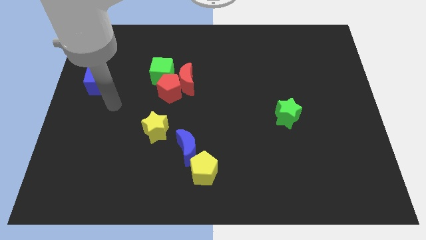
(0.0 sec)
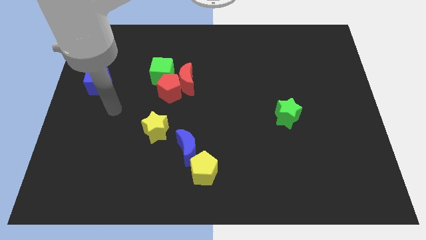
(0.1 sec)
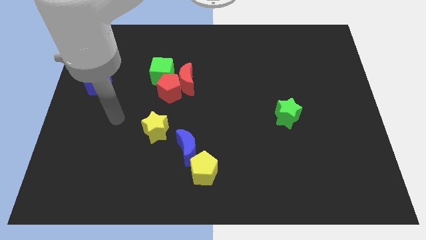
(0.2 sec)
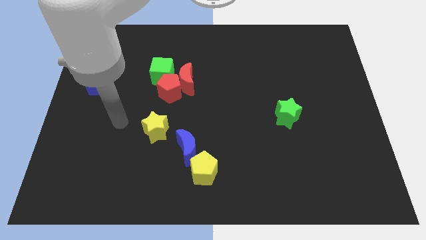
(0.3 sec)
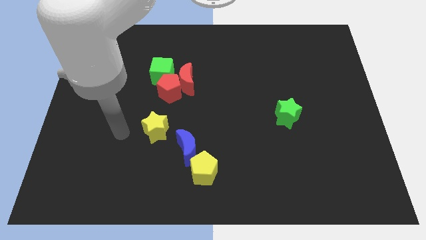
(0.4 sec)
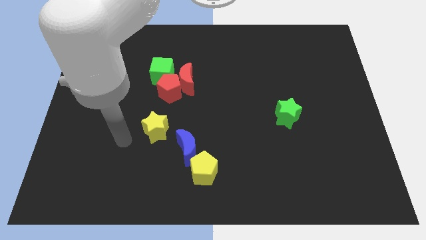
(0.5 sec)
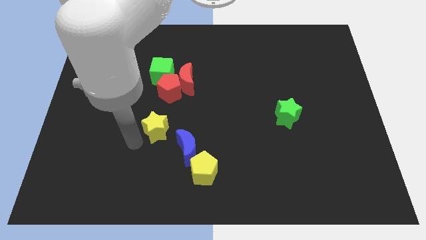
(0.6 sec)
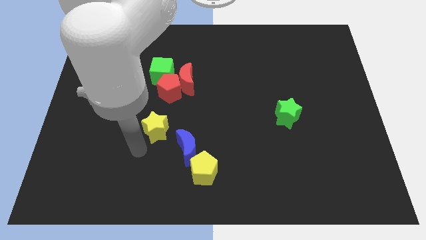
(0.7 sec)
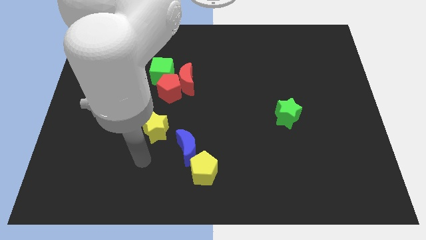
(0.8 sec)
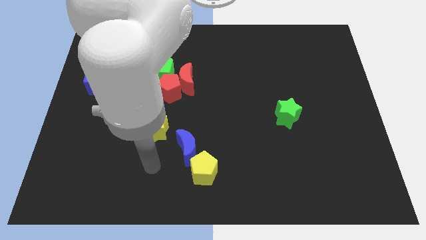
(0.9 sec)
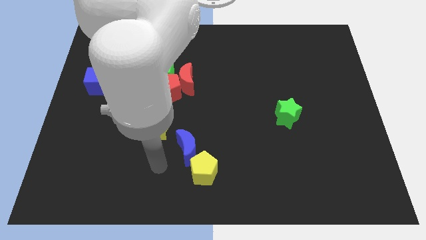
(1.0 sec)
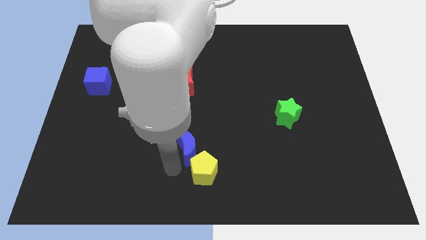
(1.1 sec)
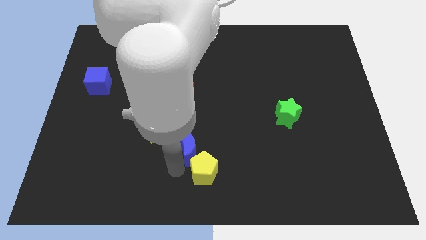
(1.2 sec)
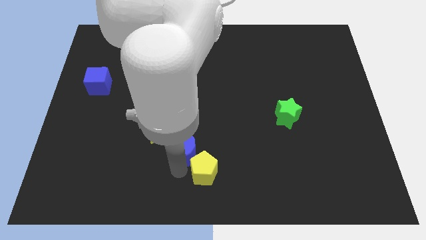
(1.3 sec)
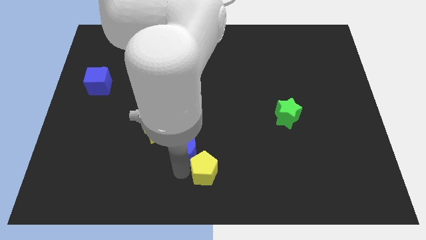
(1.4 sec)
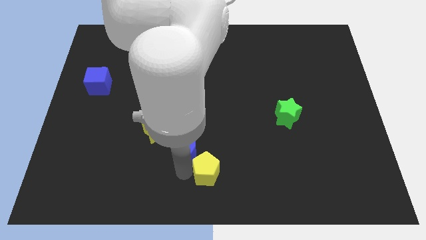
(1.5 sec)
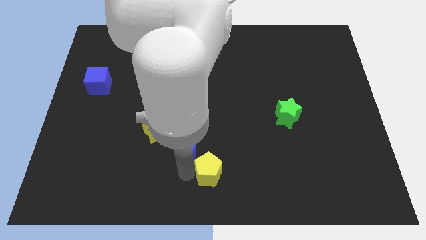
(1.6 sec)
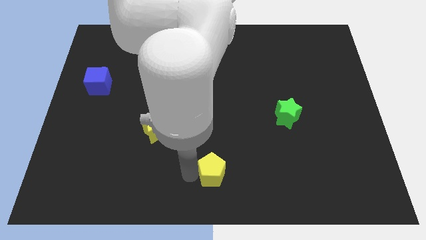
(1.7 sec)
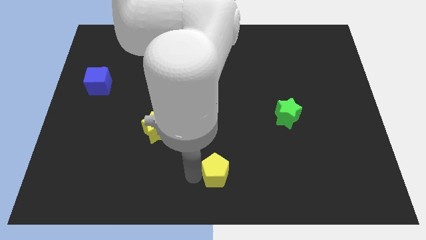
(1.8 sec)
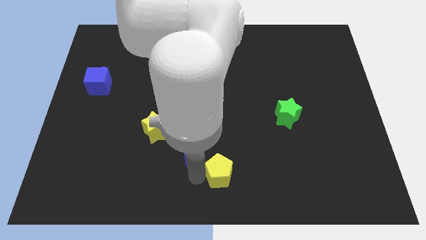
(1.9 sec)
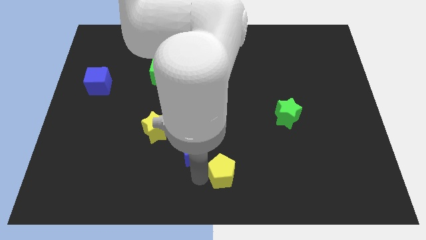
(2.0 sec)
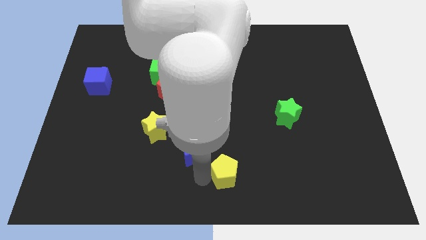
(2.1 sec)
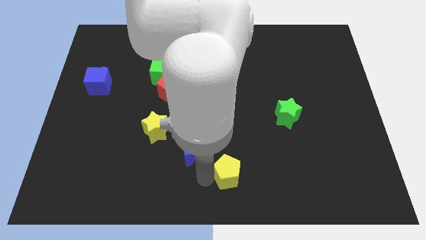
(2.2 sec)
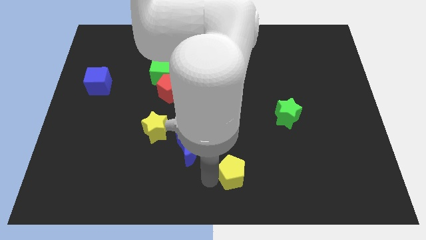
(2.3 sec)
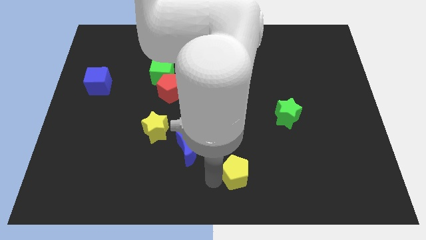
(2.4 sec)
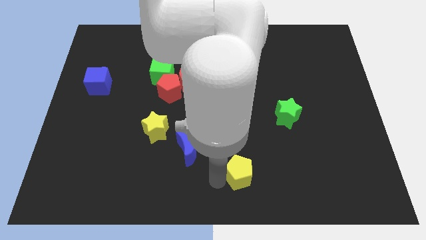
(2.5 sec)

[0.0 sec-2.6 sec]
push the yellow pentagon a bit right

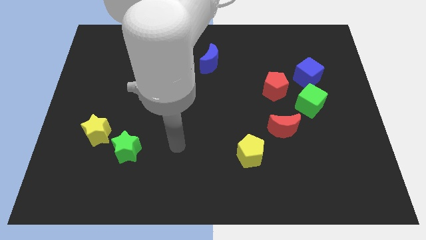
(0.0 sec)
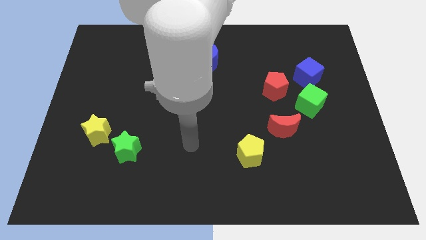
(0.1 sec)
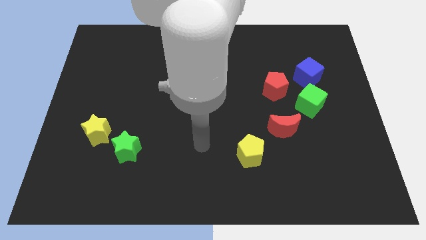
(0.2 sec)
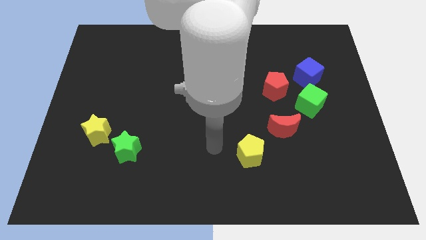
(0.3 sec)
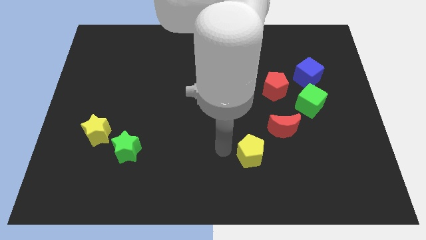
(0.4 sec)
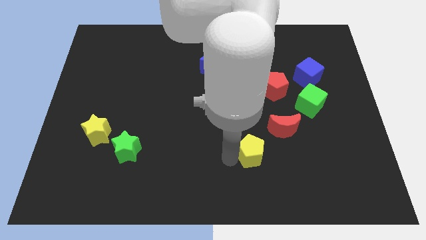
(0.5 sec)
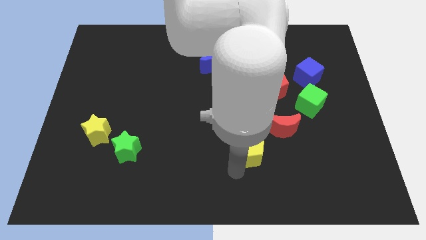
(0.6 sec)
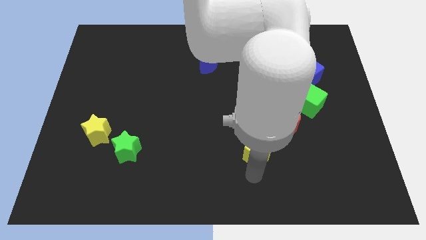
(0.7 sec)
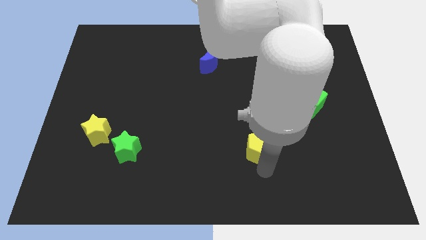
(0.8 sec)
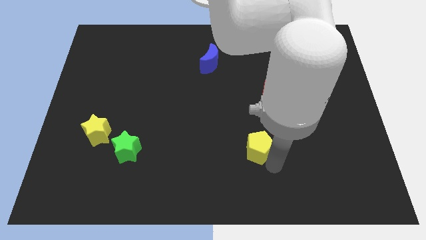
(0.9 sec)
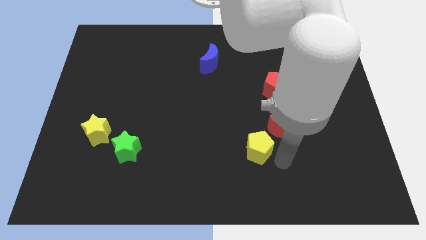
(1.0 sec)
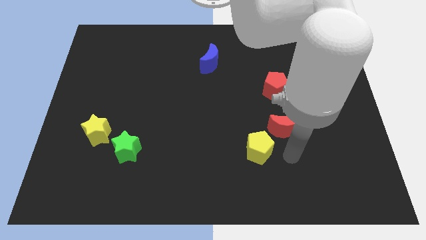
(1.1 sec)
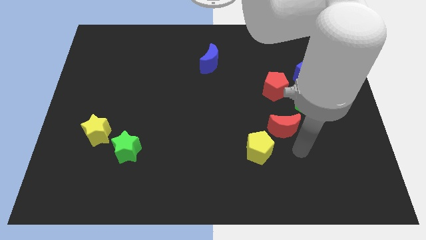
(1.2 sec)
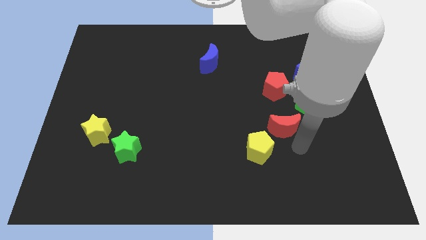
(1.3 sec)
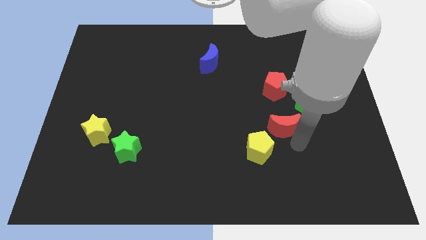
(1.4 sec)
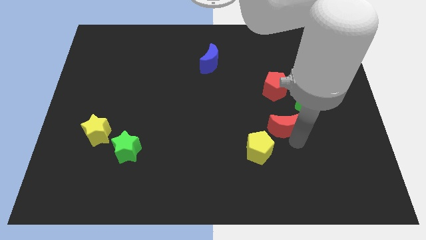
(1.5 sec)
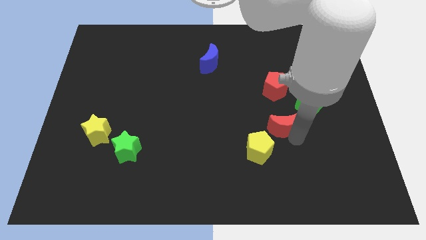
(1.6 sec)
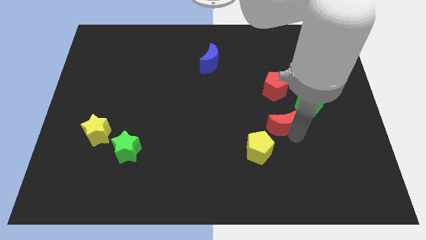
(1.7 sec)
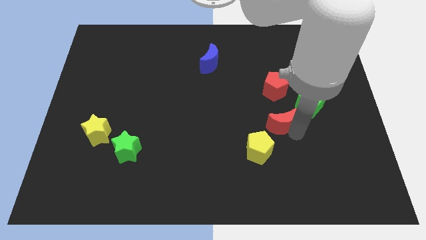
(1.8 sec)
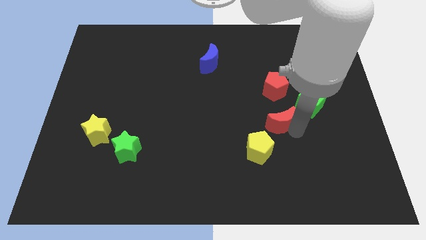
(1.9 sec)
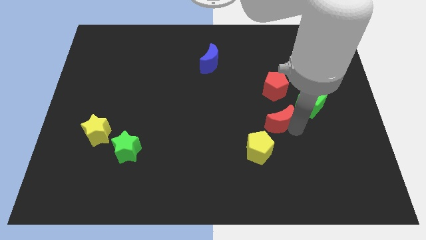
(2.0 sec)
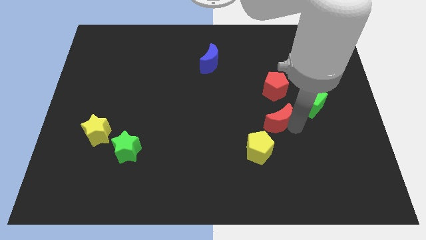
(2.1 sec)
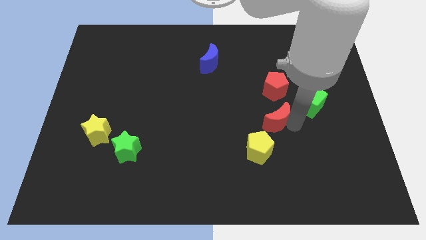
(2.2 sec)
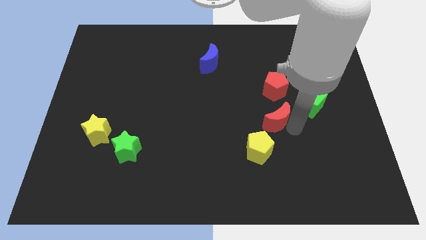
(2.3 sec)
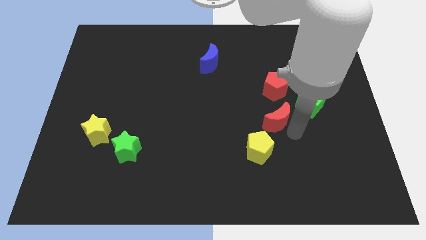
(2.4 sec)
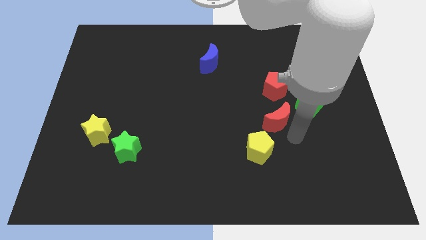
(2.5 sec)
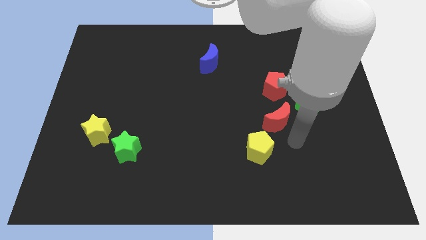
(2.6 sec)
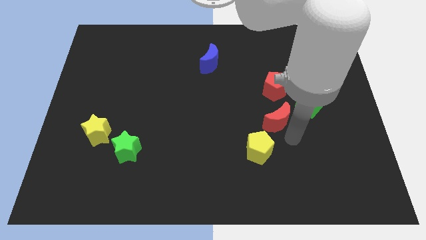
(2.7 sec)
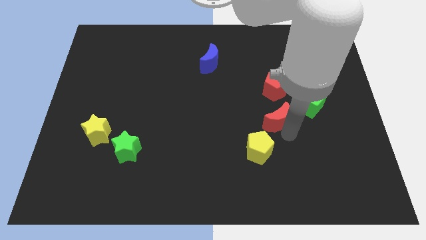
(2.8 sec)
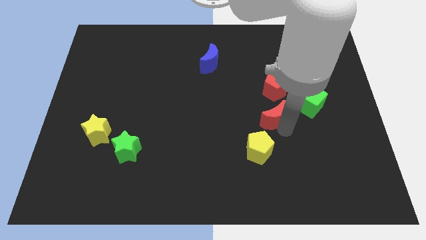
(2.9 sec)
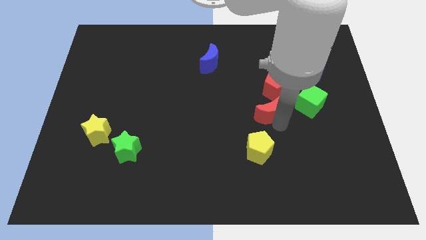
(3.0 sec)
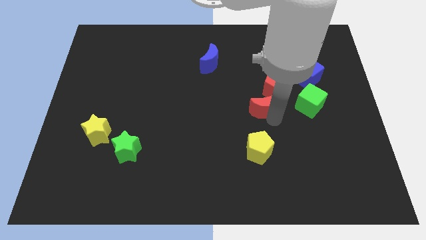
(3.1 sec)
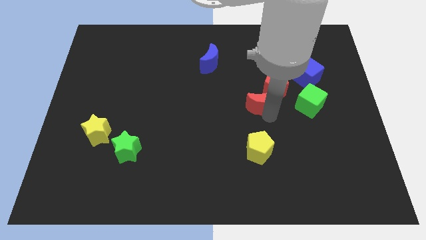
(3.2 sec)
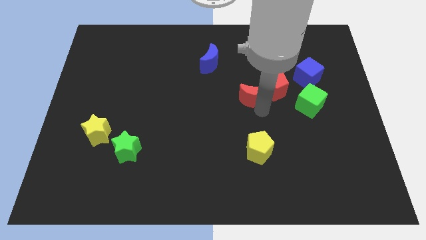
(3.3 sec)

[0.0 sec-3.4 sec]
push the red moon upwards a little

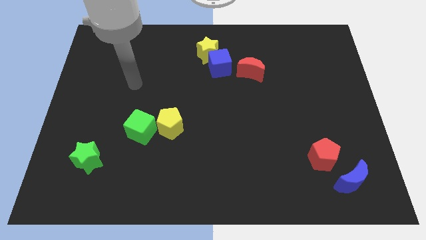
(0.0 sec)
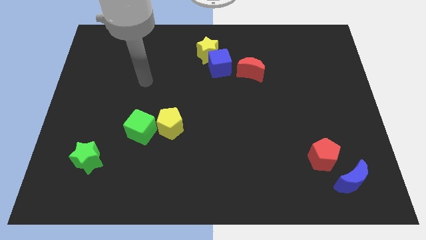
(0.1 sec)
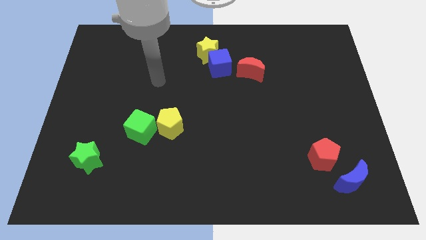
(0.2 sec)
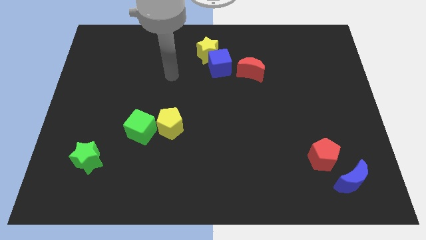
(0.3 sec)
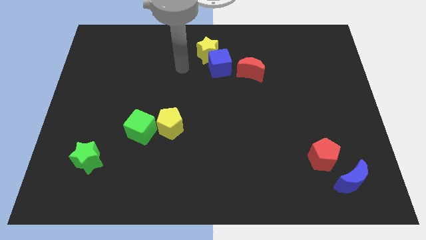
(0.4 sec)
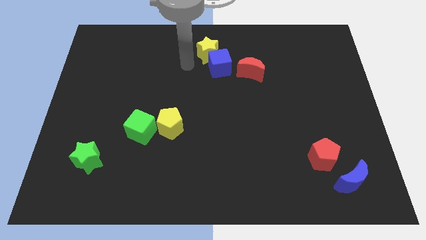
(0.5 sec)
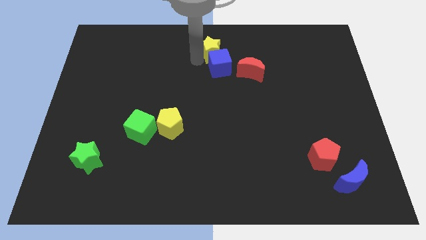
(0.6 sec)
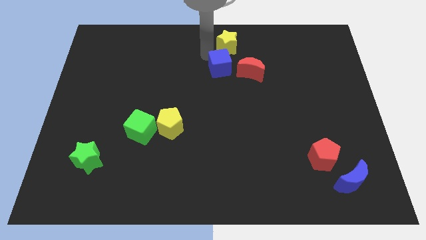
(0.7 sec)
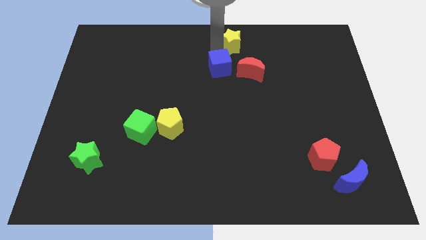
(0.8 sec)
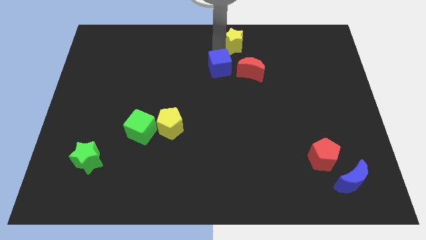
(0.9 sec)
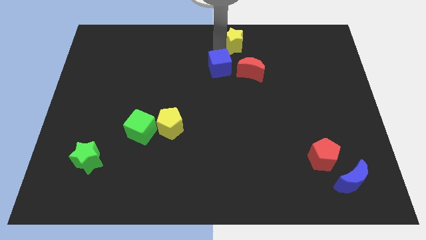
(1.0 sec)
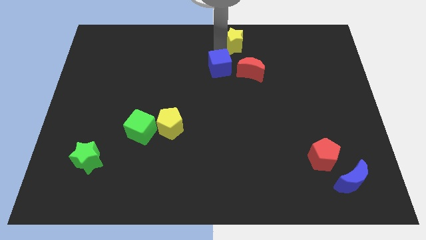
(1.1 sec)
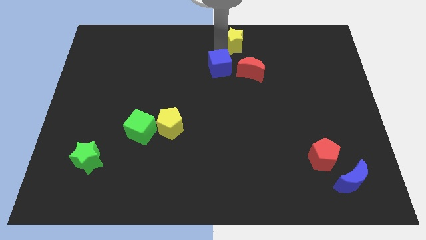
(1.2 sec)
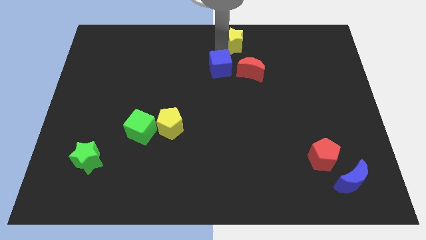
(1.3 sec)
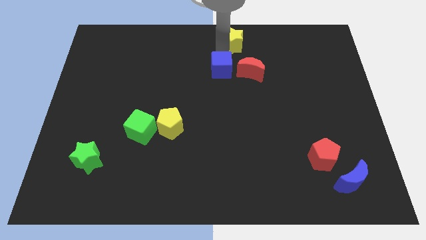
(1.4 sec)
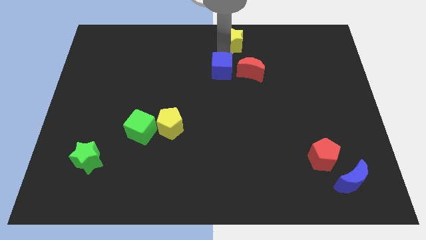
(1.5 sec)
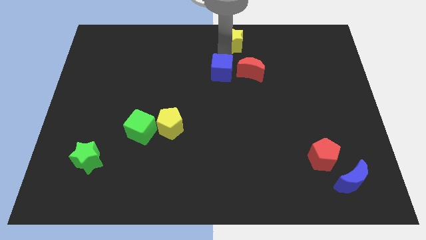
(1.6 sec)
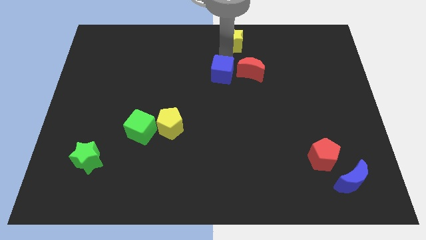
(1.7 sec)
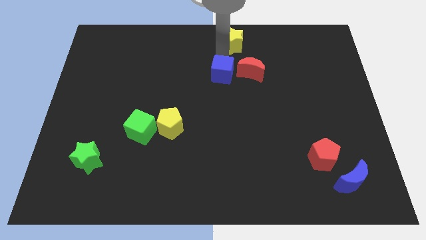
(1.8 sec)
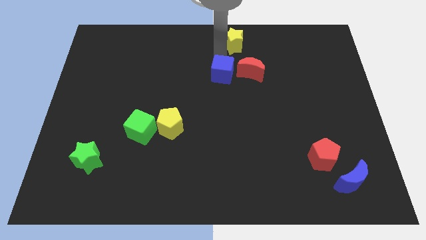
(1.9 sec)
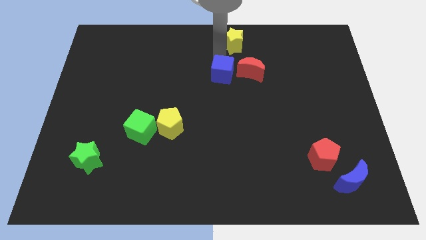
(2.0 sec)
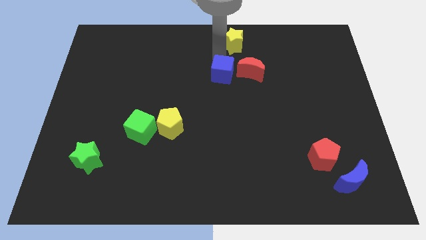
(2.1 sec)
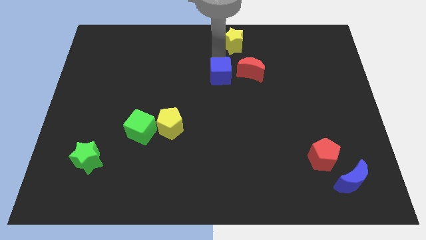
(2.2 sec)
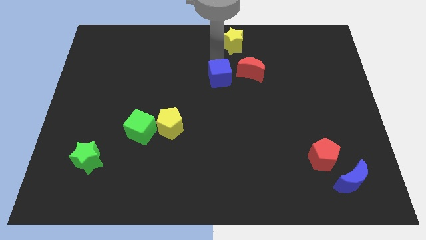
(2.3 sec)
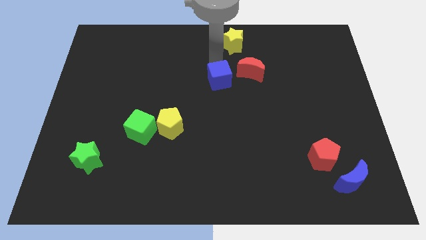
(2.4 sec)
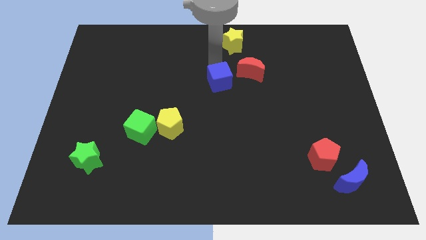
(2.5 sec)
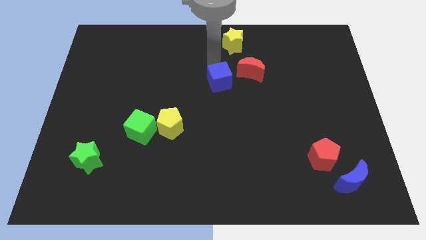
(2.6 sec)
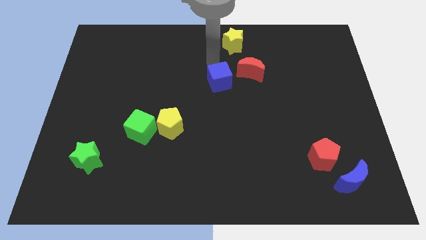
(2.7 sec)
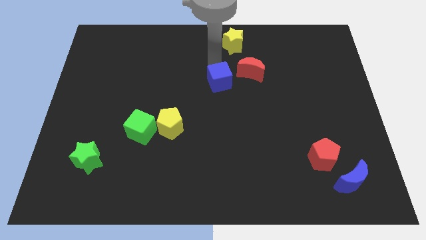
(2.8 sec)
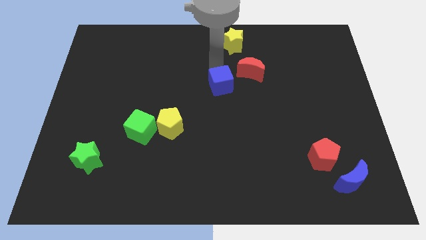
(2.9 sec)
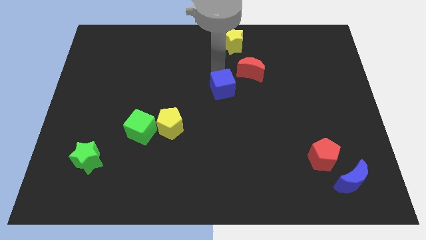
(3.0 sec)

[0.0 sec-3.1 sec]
push the blue cube a bit downwards
